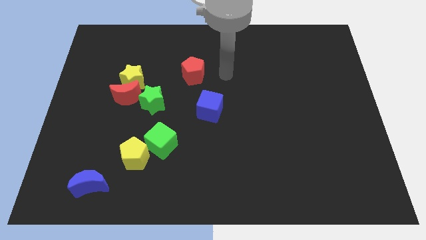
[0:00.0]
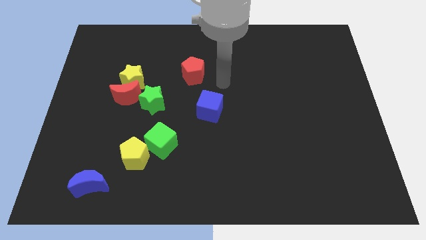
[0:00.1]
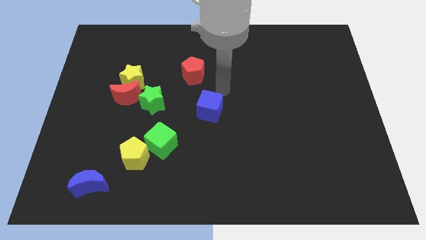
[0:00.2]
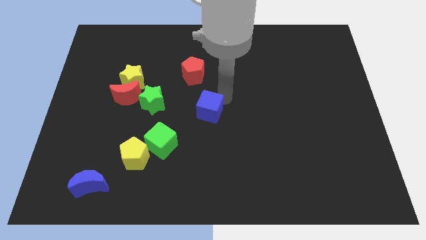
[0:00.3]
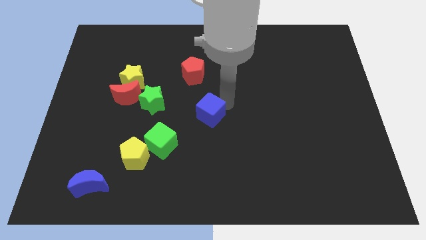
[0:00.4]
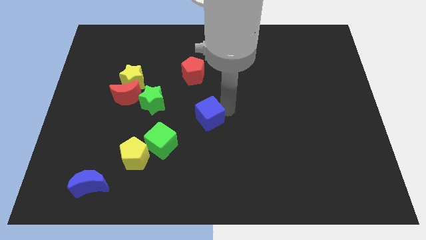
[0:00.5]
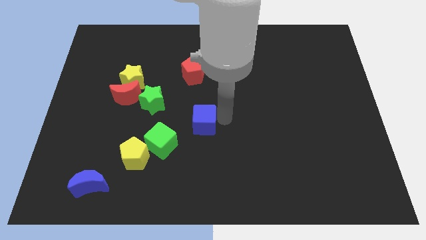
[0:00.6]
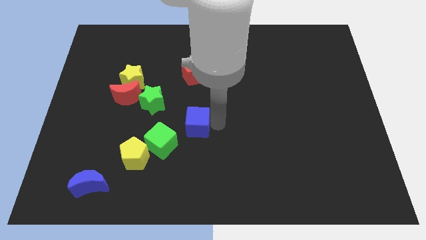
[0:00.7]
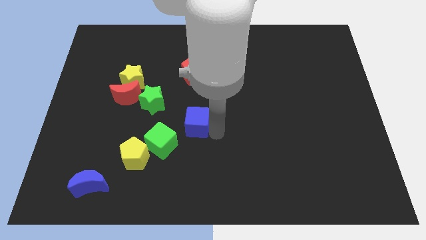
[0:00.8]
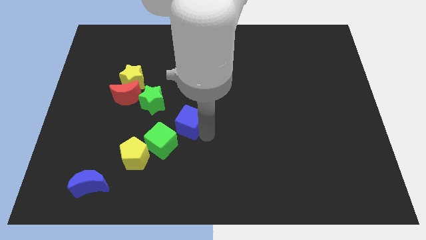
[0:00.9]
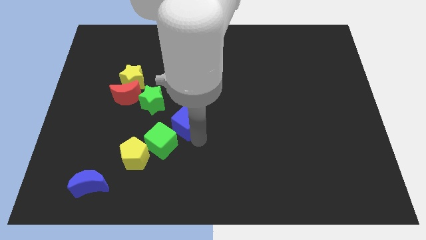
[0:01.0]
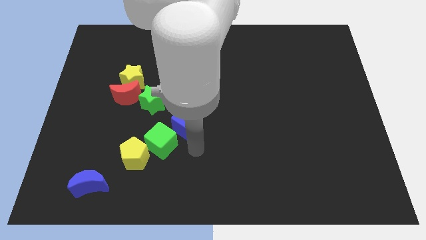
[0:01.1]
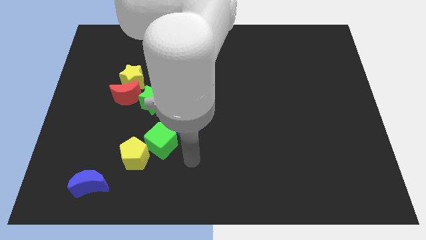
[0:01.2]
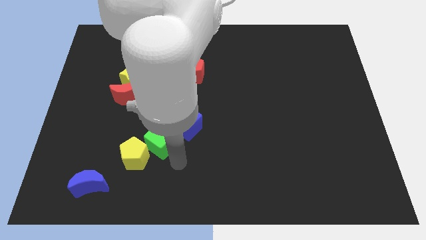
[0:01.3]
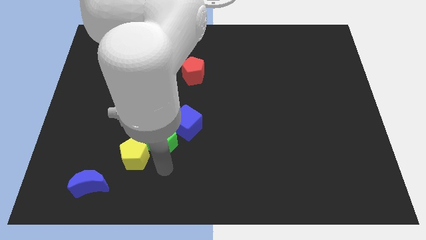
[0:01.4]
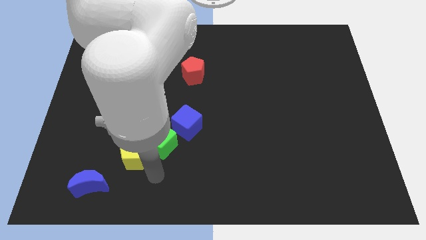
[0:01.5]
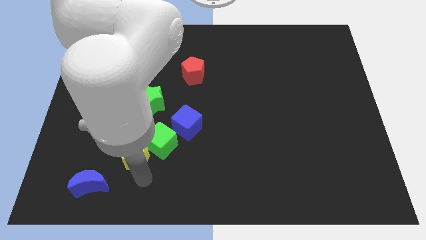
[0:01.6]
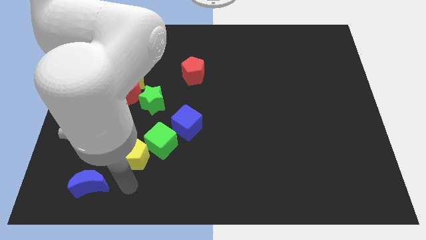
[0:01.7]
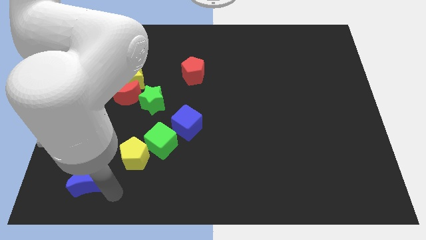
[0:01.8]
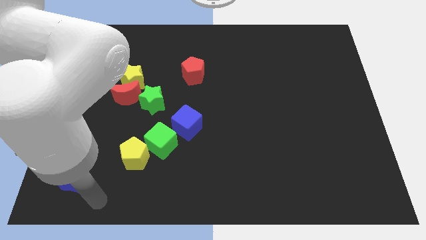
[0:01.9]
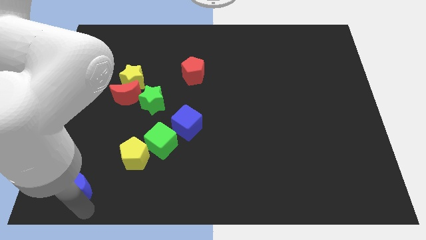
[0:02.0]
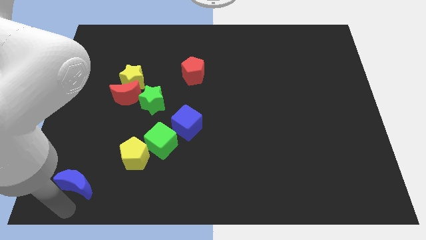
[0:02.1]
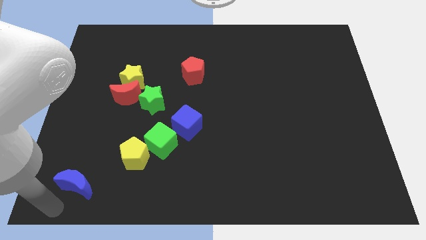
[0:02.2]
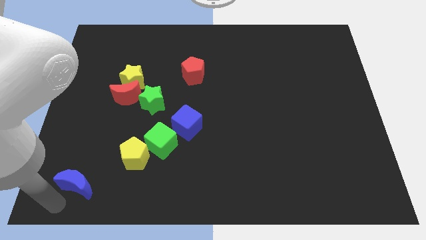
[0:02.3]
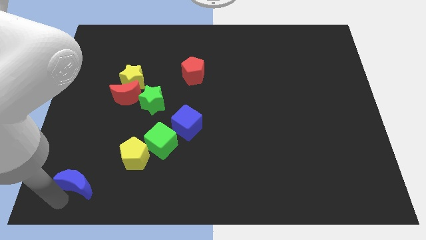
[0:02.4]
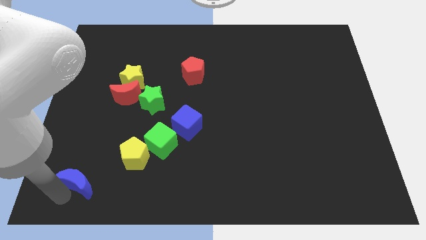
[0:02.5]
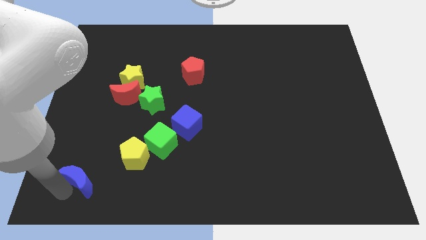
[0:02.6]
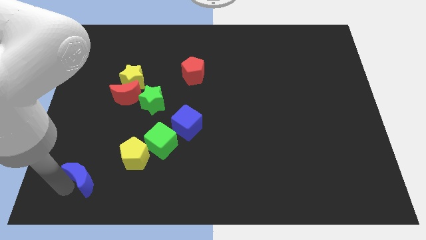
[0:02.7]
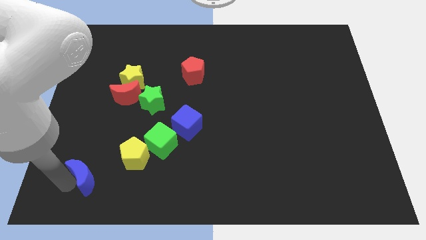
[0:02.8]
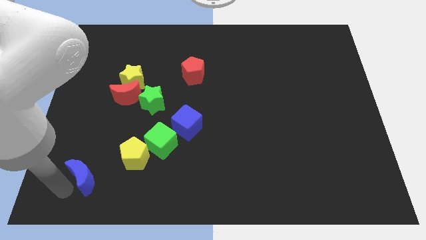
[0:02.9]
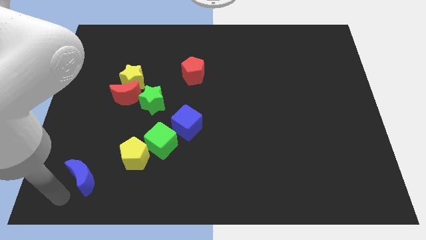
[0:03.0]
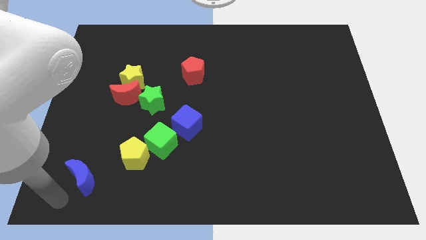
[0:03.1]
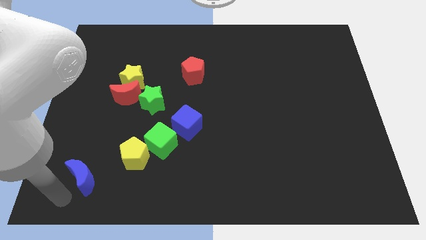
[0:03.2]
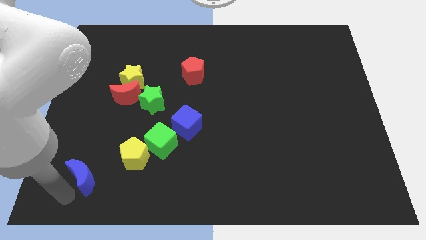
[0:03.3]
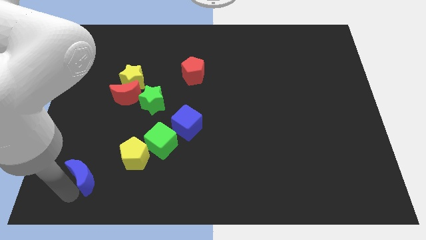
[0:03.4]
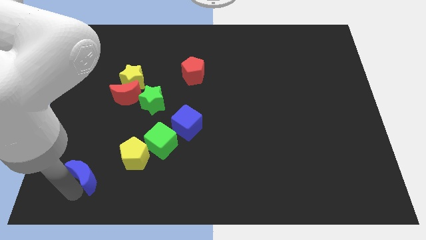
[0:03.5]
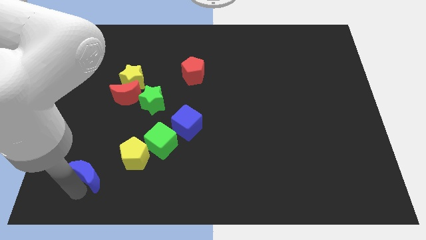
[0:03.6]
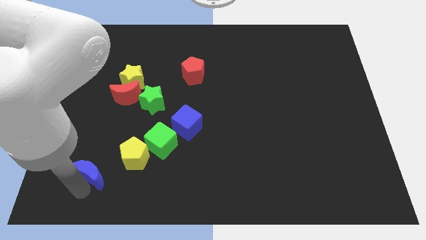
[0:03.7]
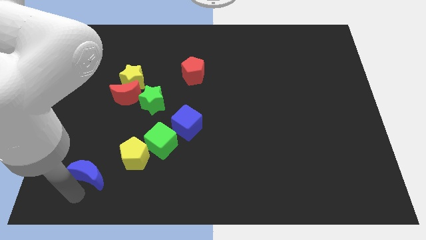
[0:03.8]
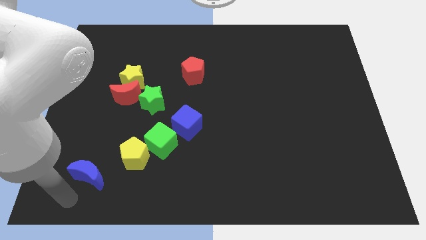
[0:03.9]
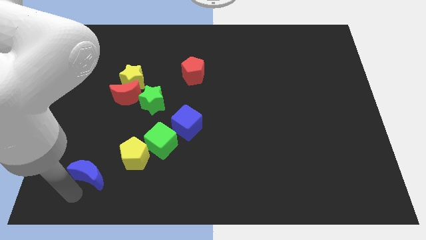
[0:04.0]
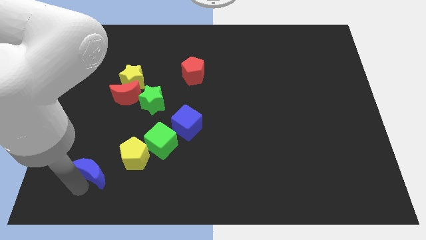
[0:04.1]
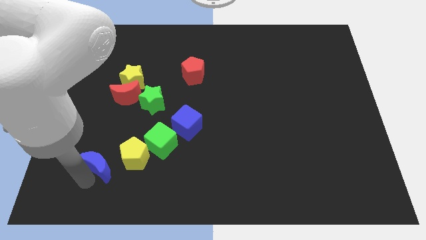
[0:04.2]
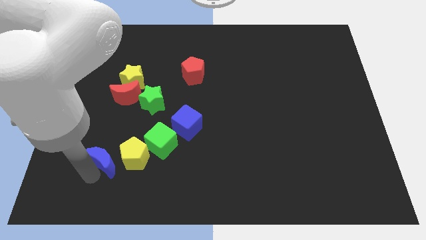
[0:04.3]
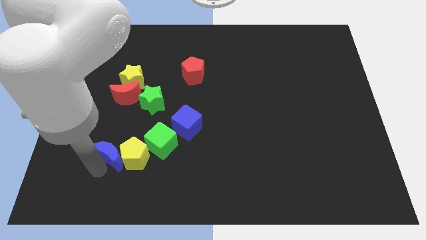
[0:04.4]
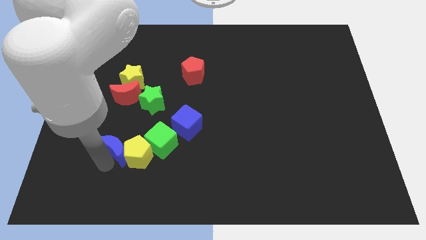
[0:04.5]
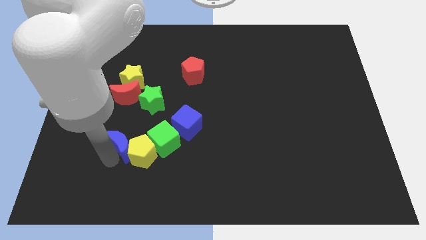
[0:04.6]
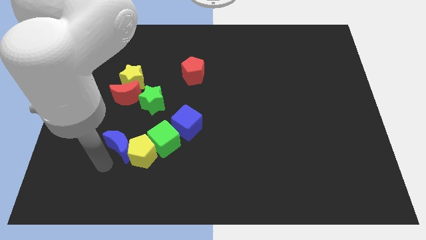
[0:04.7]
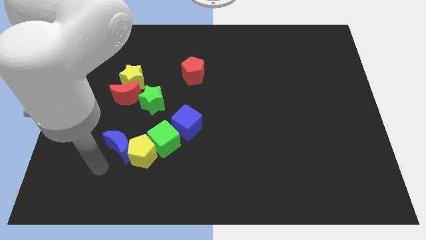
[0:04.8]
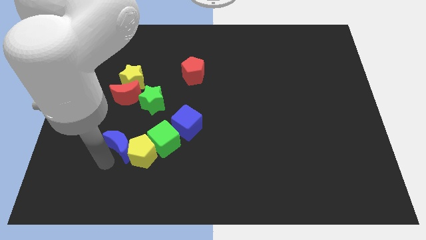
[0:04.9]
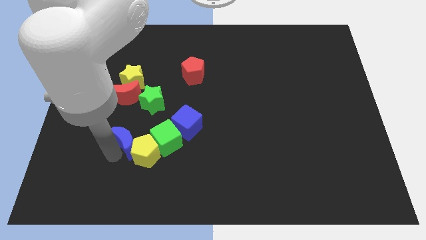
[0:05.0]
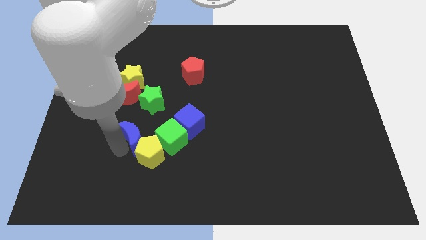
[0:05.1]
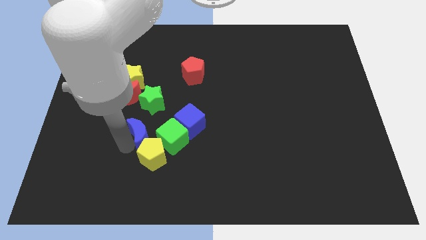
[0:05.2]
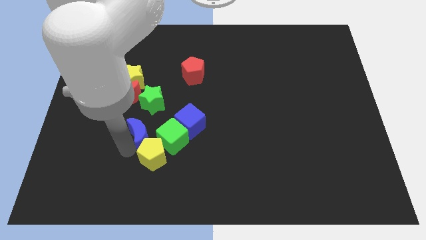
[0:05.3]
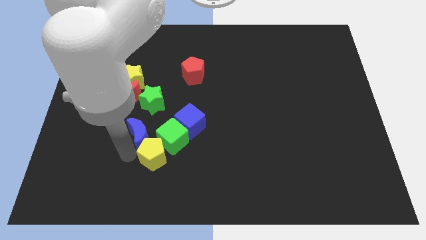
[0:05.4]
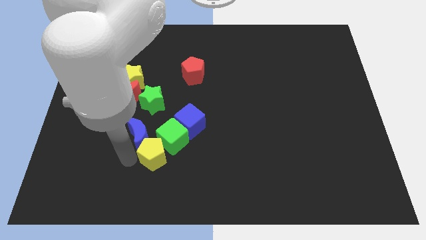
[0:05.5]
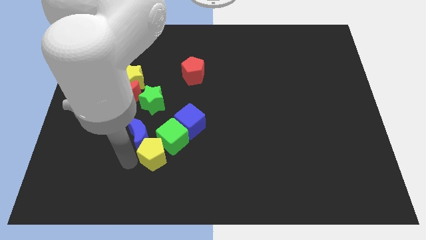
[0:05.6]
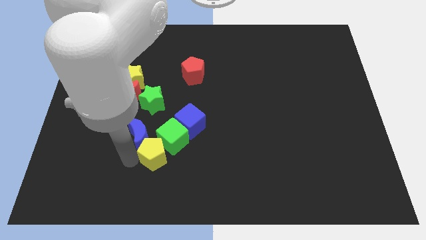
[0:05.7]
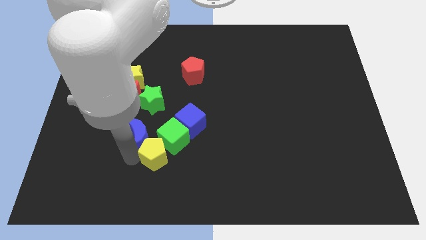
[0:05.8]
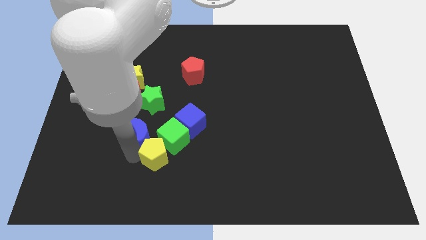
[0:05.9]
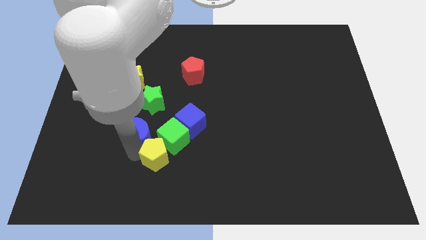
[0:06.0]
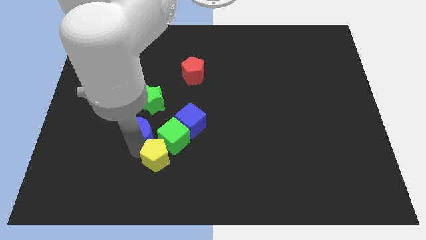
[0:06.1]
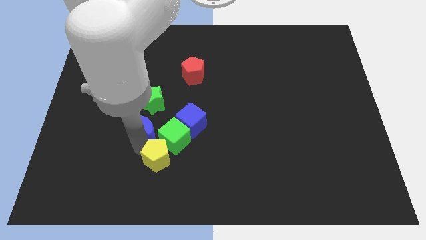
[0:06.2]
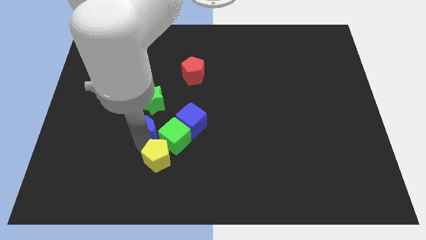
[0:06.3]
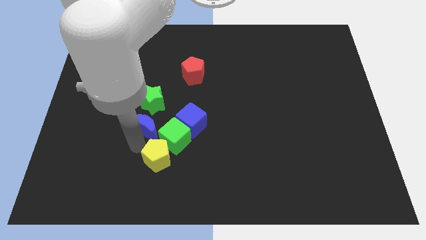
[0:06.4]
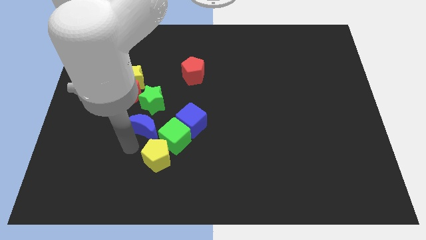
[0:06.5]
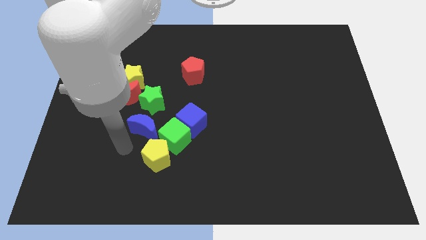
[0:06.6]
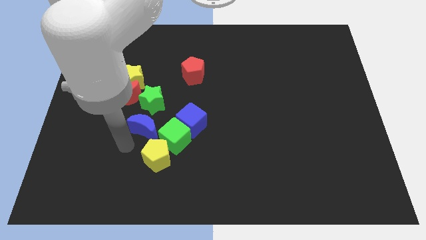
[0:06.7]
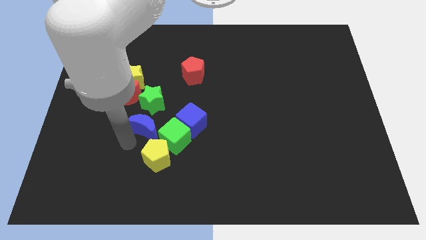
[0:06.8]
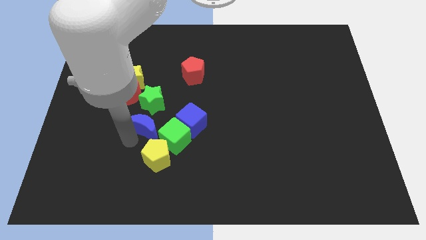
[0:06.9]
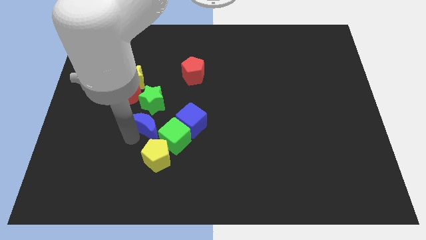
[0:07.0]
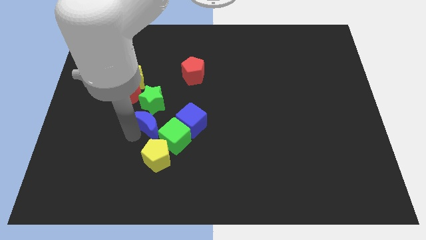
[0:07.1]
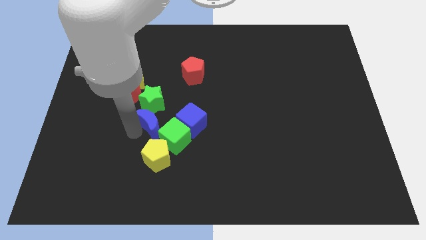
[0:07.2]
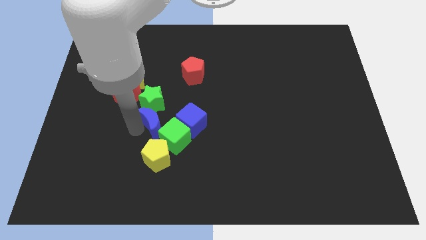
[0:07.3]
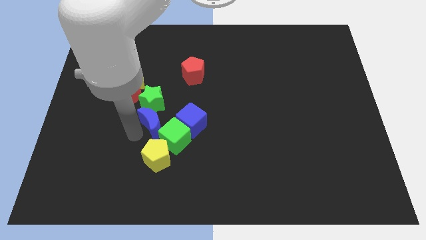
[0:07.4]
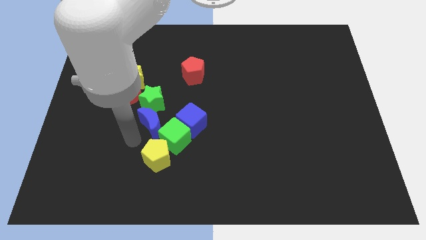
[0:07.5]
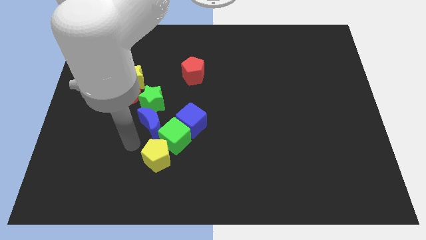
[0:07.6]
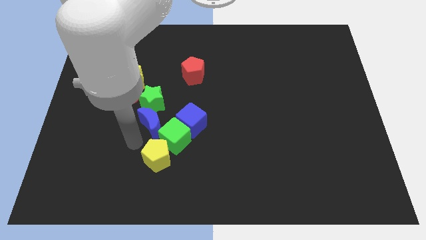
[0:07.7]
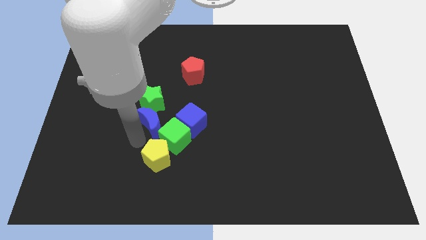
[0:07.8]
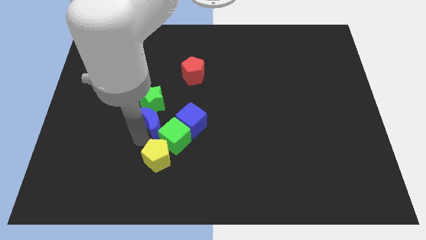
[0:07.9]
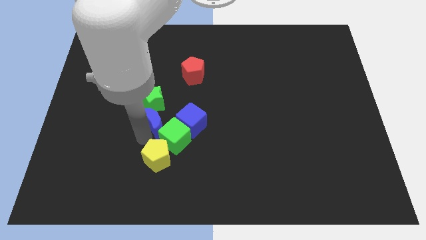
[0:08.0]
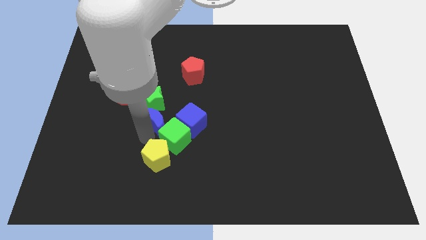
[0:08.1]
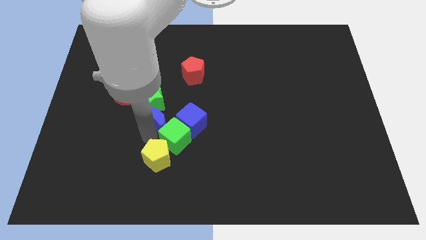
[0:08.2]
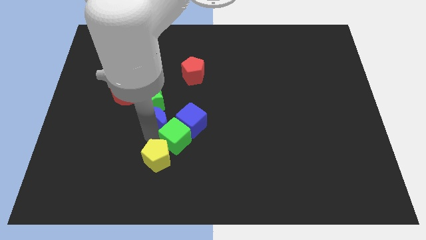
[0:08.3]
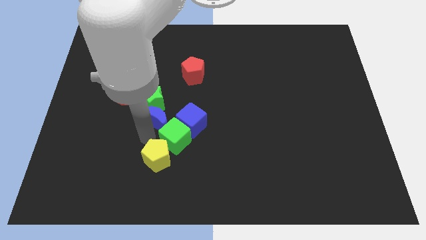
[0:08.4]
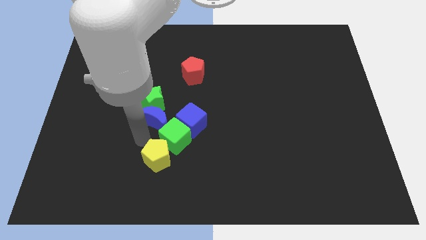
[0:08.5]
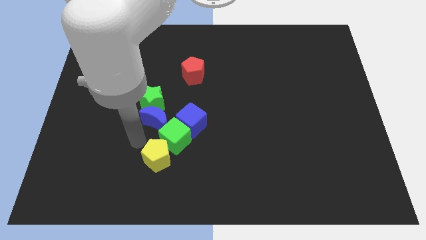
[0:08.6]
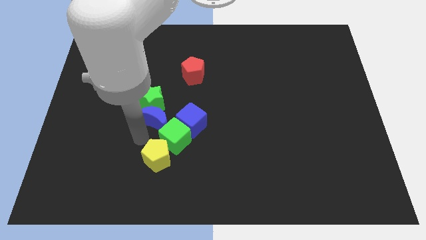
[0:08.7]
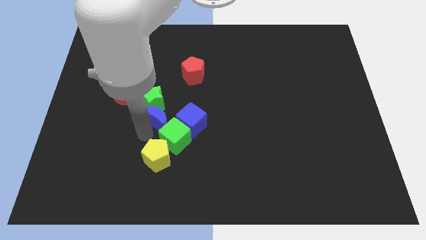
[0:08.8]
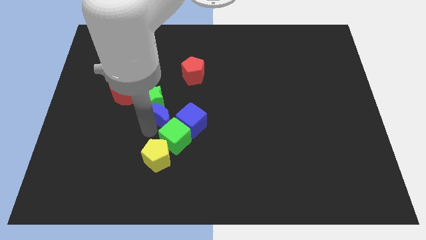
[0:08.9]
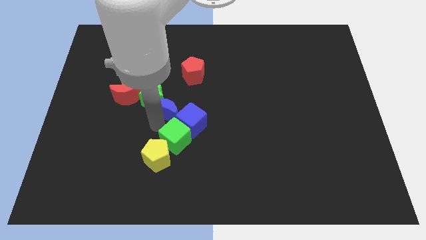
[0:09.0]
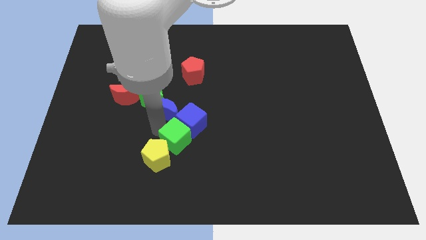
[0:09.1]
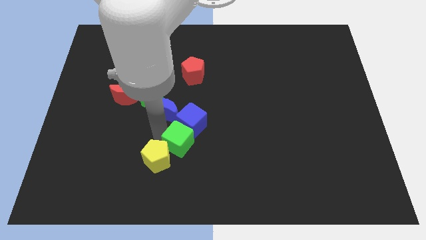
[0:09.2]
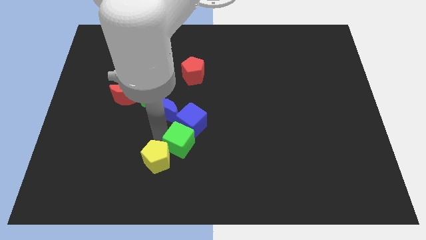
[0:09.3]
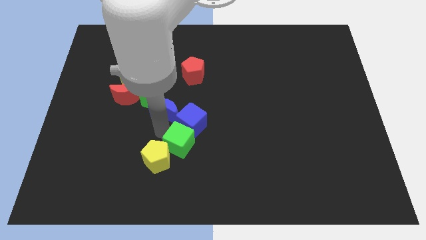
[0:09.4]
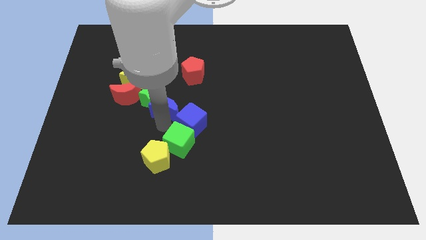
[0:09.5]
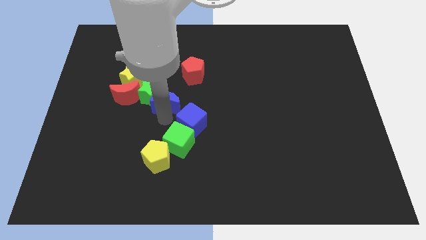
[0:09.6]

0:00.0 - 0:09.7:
move the blue moon to the bottom left of the red pentagon
